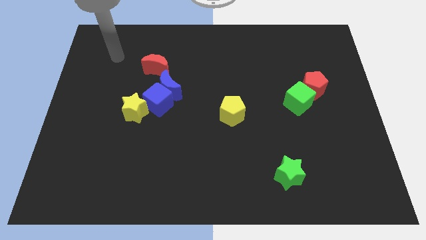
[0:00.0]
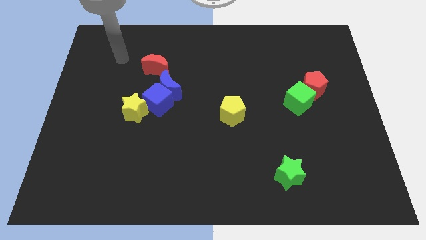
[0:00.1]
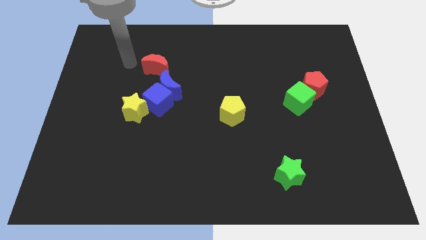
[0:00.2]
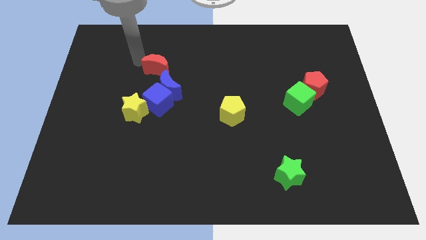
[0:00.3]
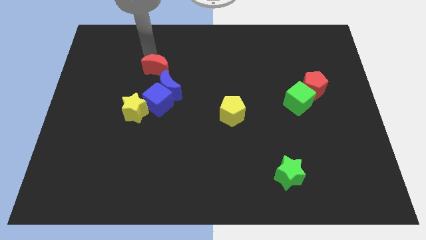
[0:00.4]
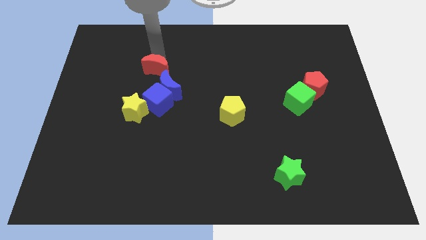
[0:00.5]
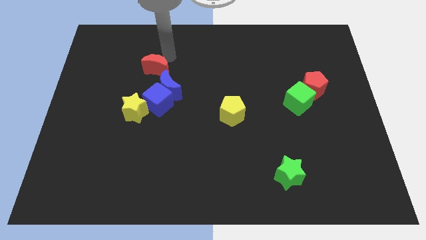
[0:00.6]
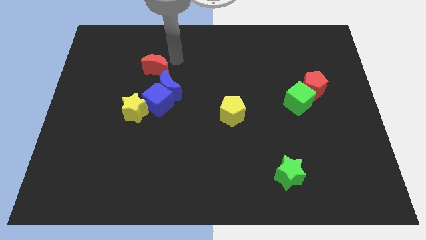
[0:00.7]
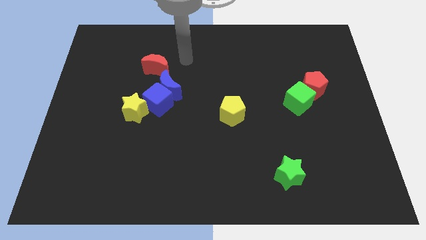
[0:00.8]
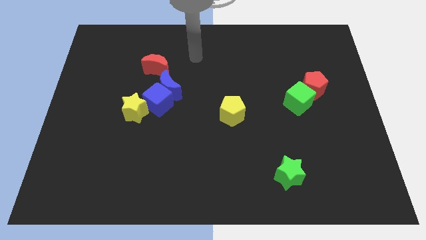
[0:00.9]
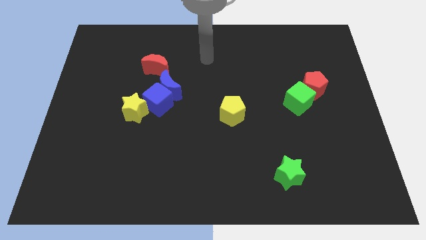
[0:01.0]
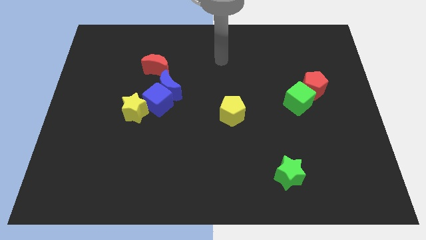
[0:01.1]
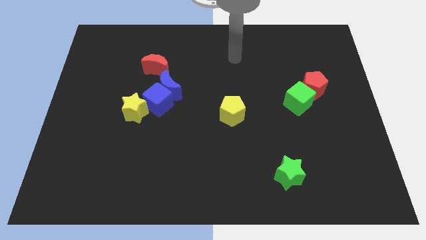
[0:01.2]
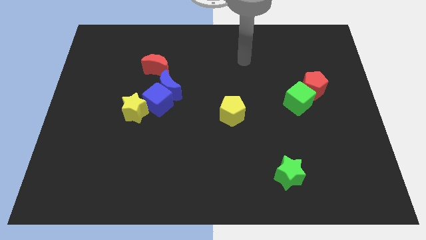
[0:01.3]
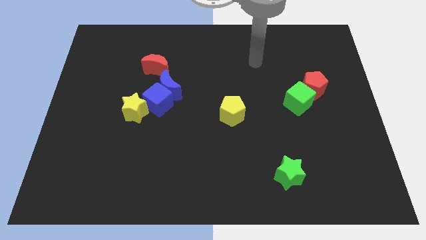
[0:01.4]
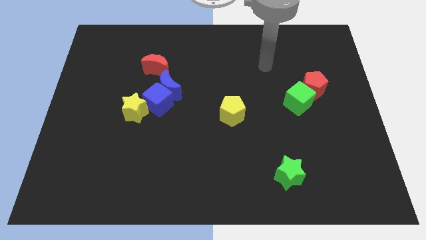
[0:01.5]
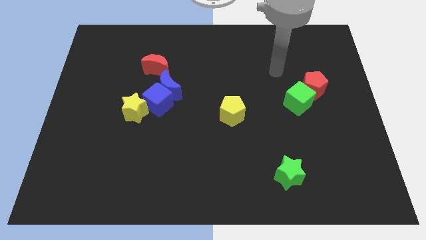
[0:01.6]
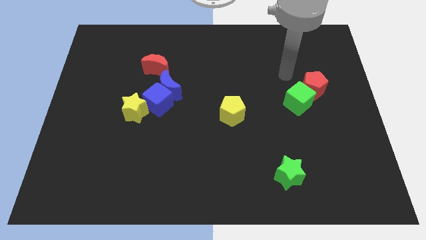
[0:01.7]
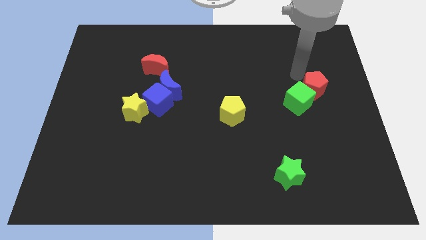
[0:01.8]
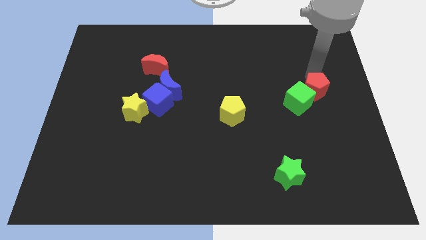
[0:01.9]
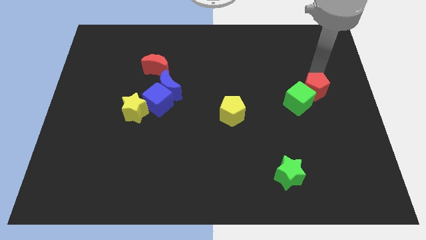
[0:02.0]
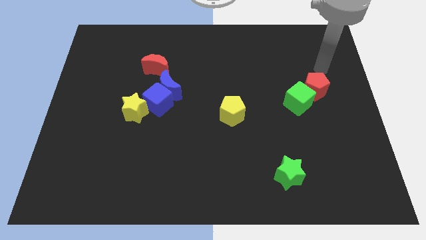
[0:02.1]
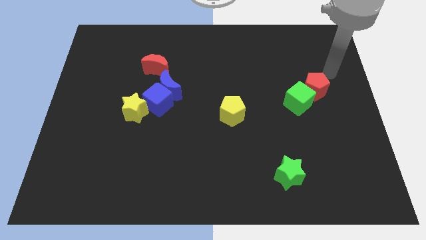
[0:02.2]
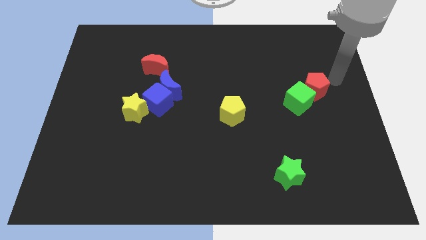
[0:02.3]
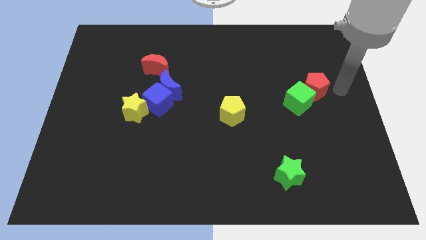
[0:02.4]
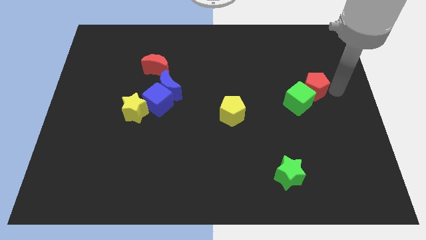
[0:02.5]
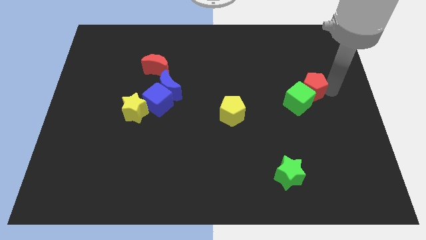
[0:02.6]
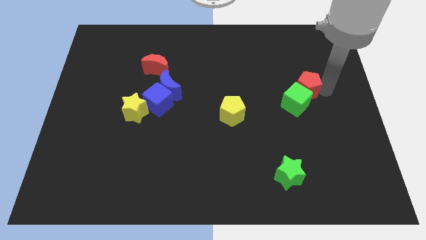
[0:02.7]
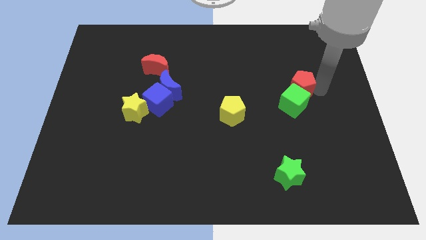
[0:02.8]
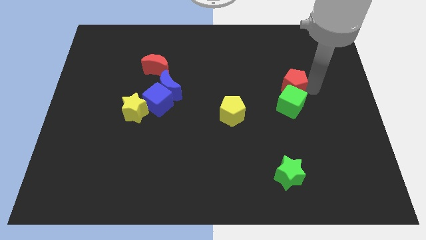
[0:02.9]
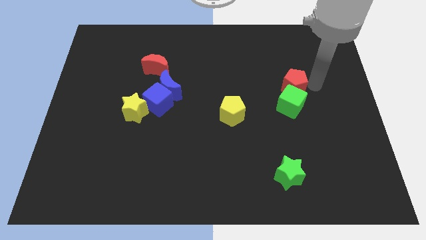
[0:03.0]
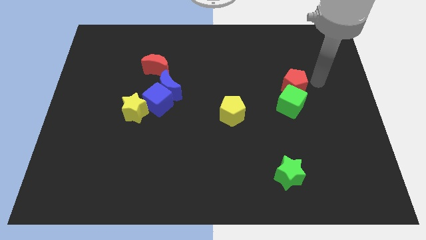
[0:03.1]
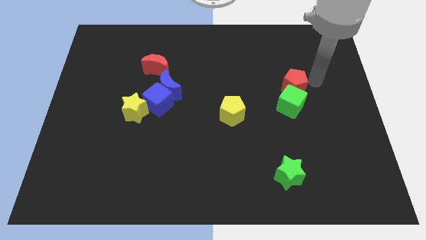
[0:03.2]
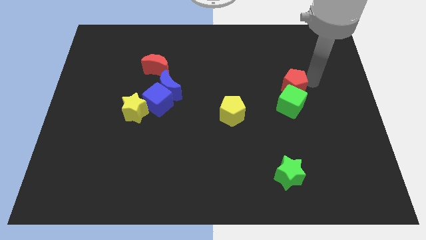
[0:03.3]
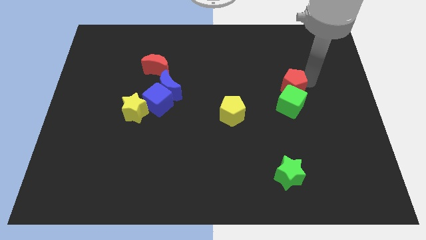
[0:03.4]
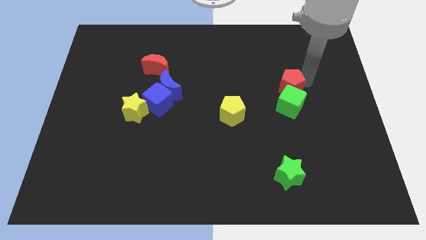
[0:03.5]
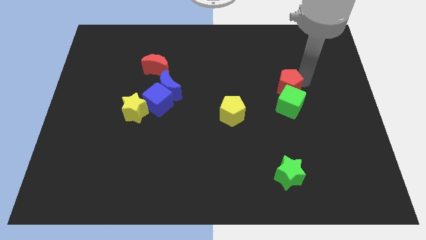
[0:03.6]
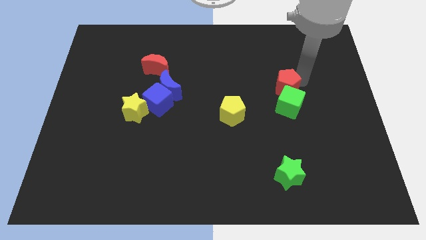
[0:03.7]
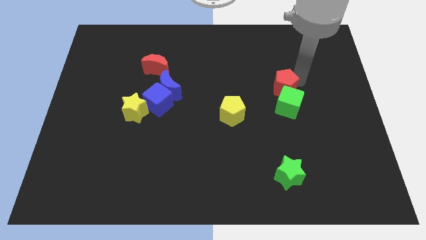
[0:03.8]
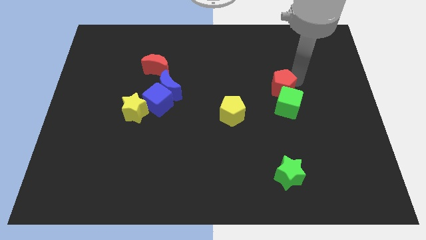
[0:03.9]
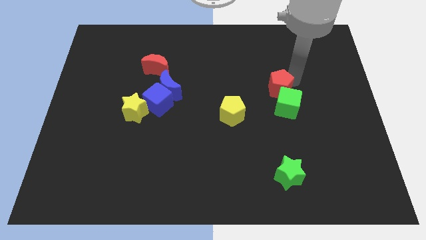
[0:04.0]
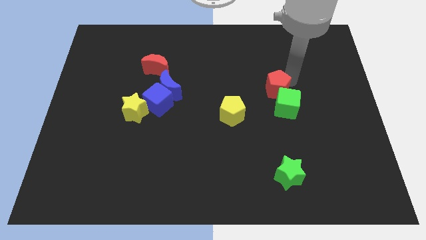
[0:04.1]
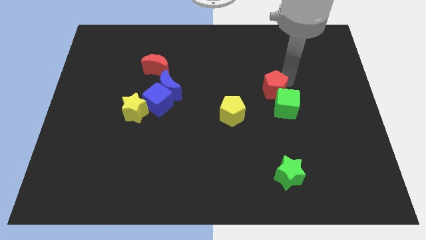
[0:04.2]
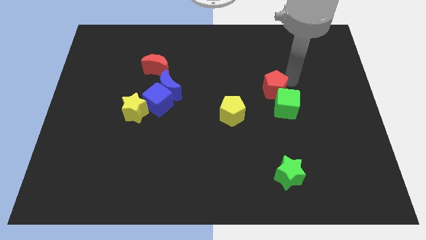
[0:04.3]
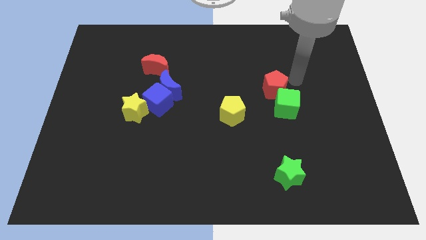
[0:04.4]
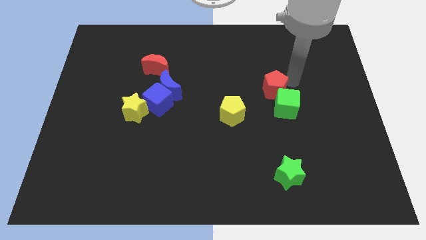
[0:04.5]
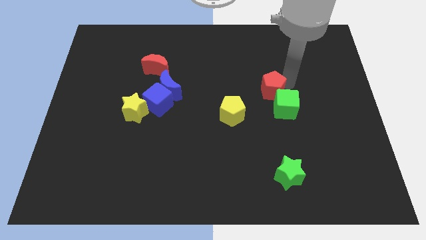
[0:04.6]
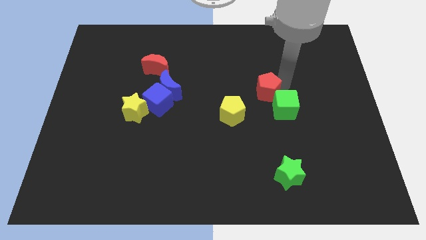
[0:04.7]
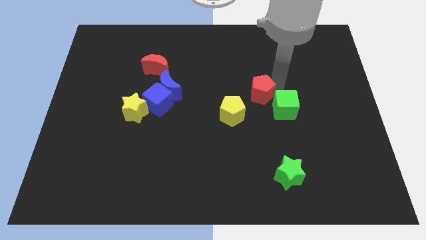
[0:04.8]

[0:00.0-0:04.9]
slide the red pentagon to the middle of the board

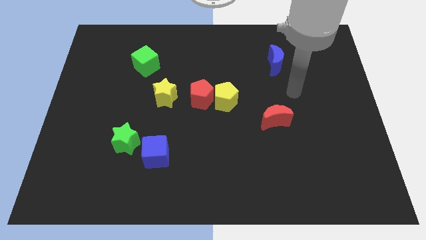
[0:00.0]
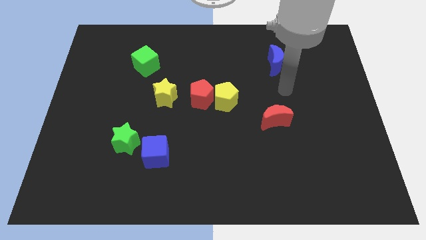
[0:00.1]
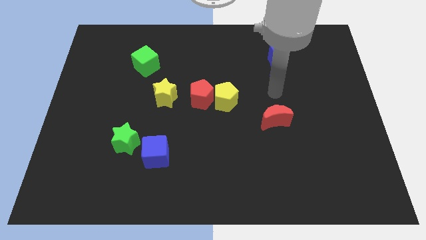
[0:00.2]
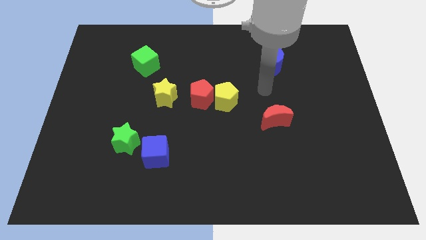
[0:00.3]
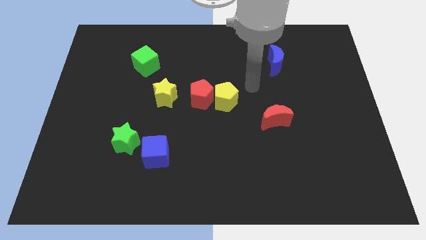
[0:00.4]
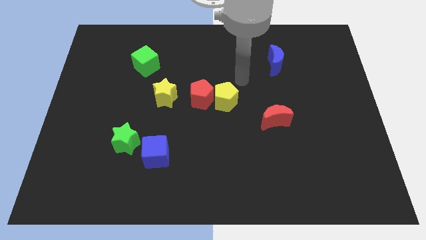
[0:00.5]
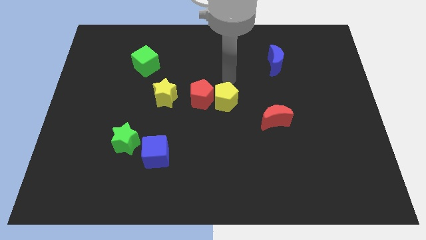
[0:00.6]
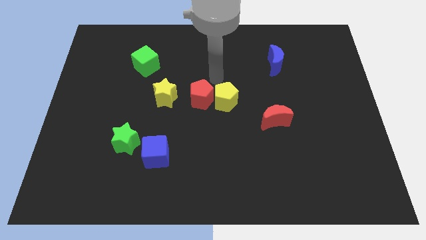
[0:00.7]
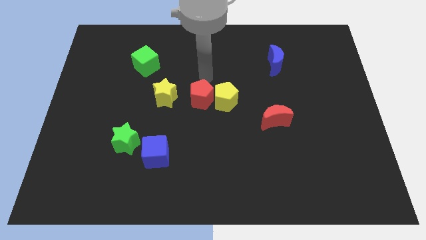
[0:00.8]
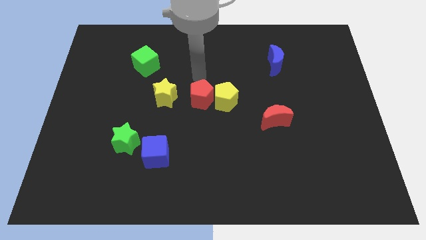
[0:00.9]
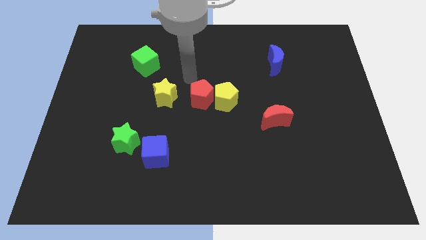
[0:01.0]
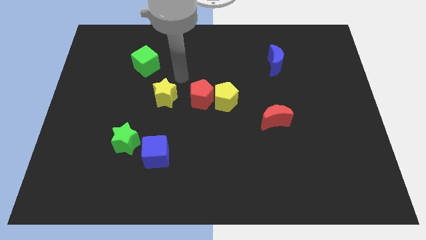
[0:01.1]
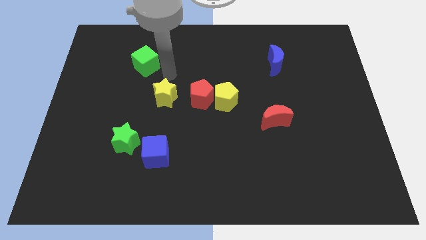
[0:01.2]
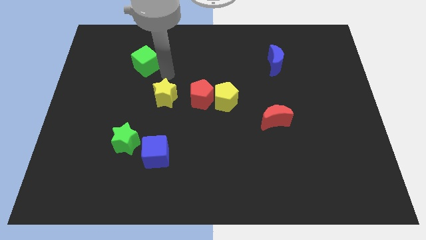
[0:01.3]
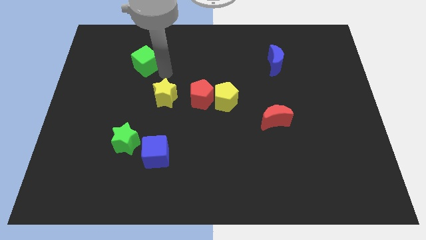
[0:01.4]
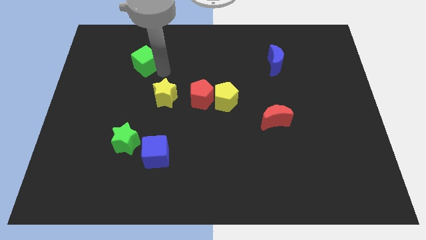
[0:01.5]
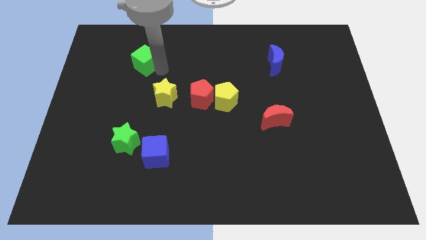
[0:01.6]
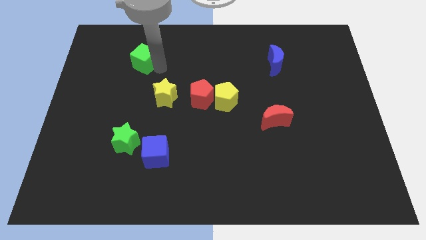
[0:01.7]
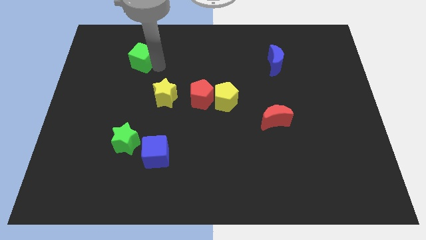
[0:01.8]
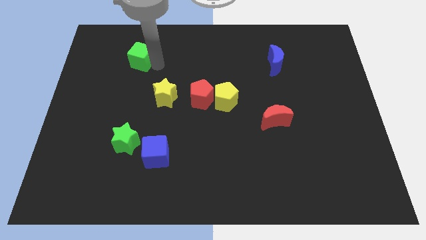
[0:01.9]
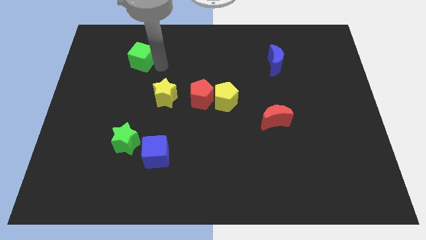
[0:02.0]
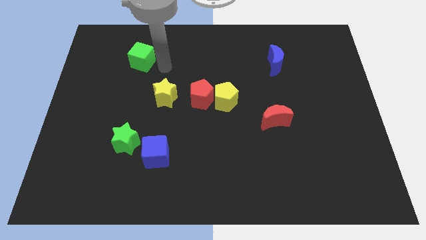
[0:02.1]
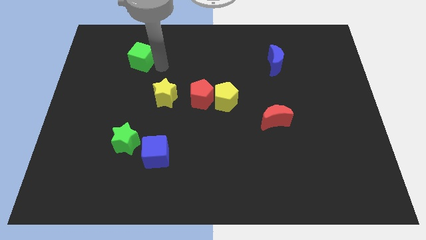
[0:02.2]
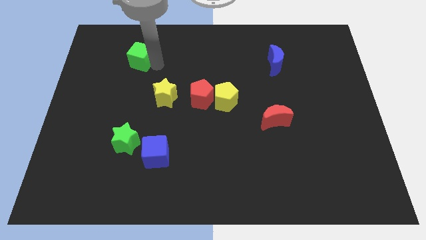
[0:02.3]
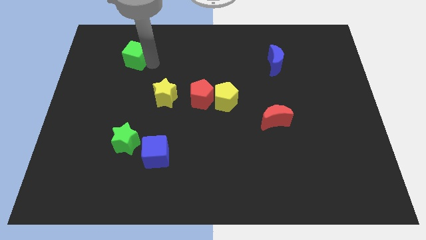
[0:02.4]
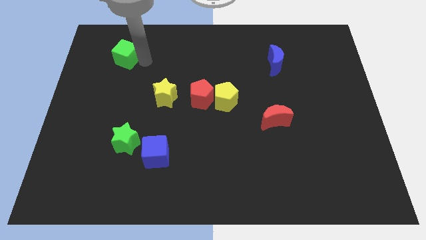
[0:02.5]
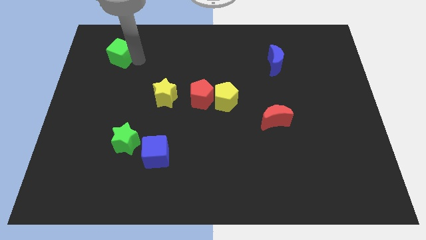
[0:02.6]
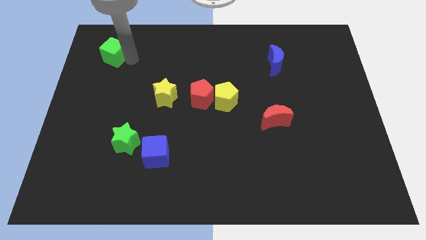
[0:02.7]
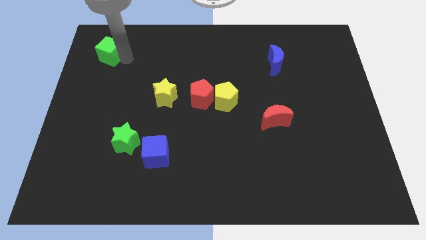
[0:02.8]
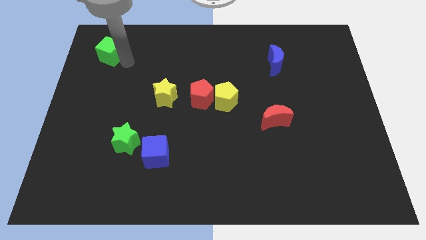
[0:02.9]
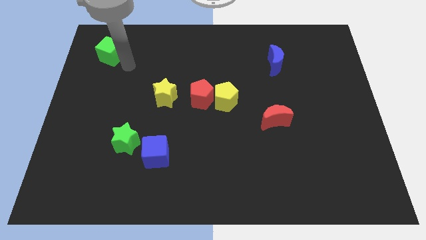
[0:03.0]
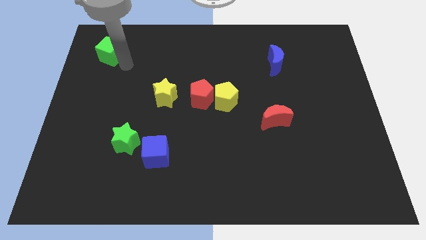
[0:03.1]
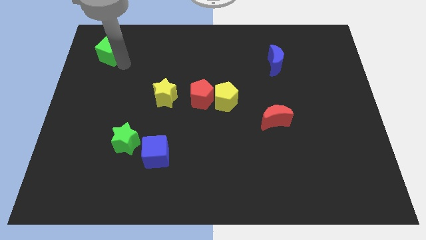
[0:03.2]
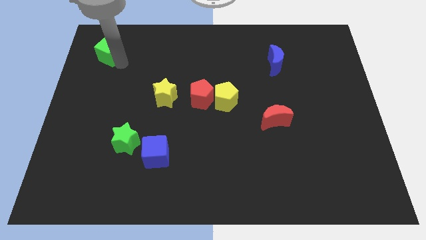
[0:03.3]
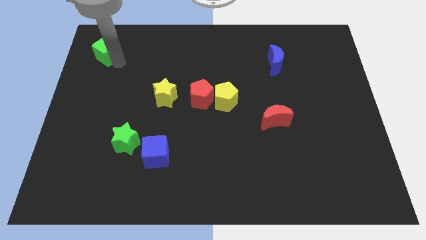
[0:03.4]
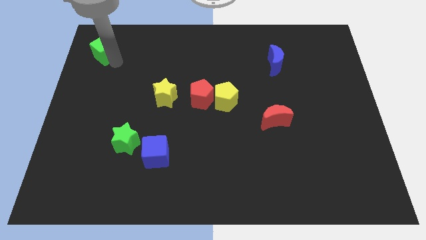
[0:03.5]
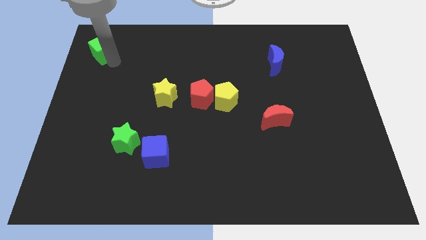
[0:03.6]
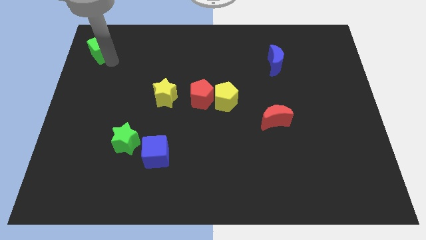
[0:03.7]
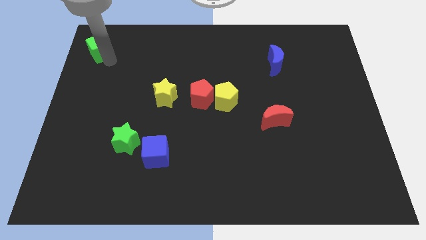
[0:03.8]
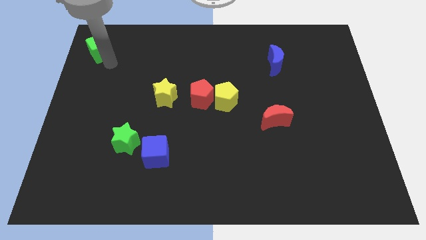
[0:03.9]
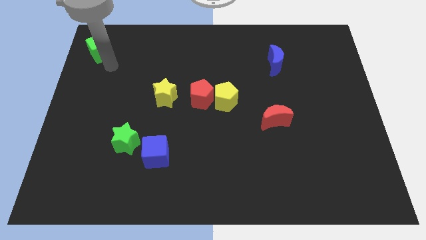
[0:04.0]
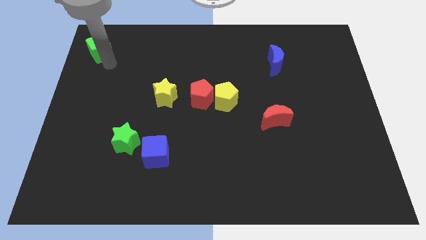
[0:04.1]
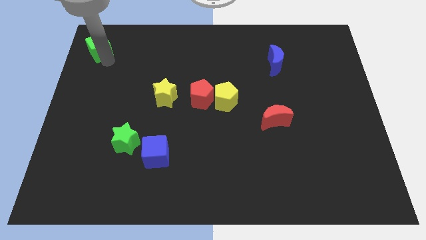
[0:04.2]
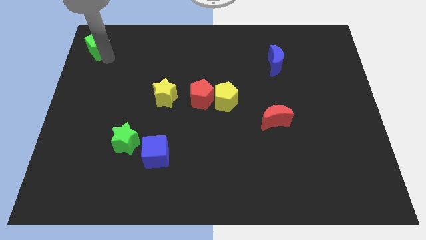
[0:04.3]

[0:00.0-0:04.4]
push the green cube to the top left
